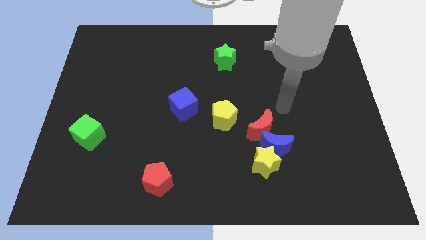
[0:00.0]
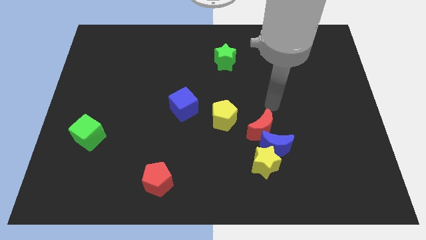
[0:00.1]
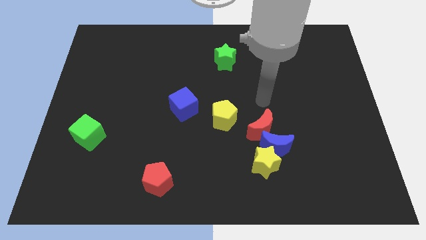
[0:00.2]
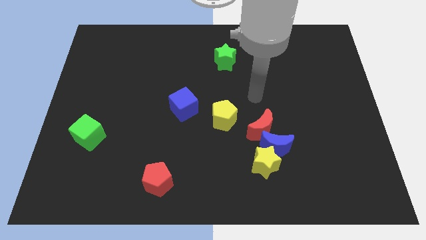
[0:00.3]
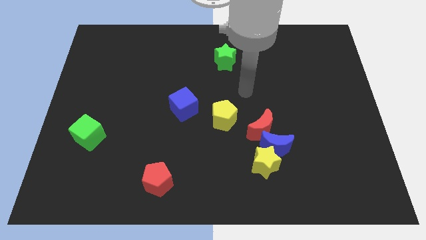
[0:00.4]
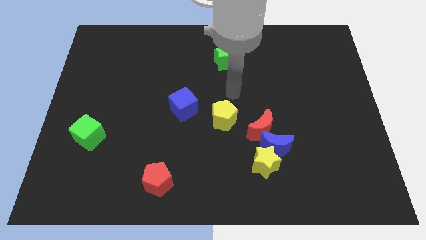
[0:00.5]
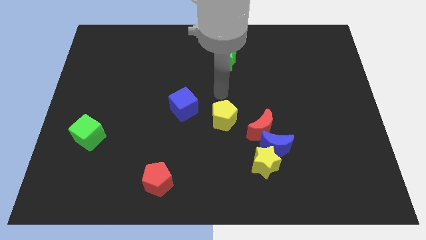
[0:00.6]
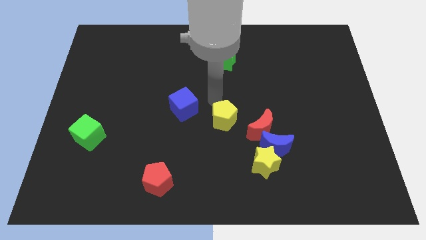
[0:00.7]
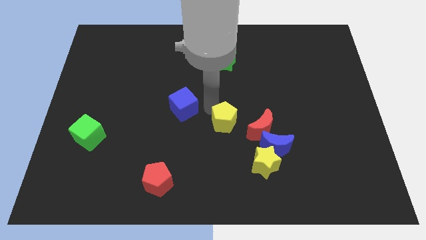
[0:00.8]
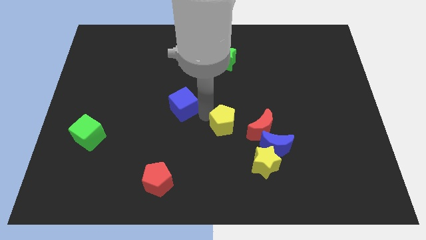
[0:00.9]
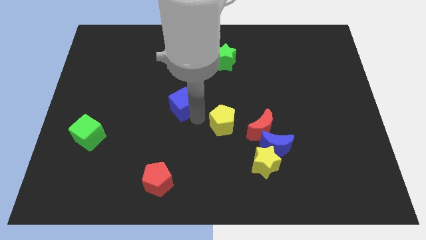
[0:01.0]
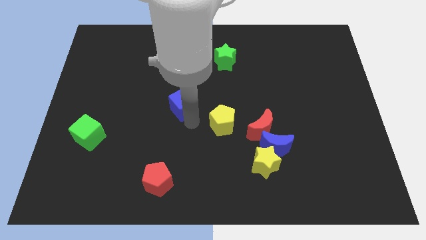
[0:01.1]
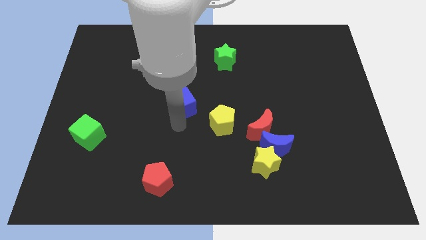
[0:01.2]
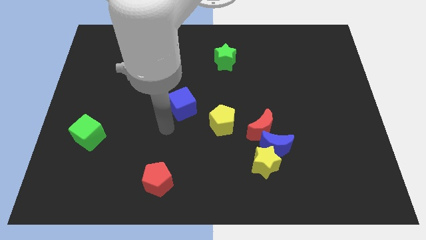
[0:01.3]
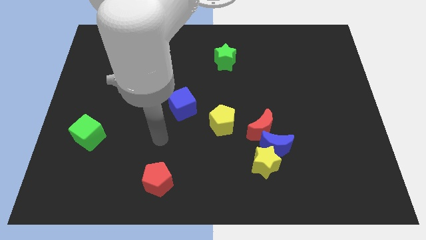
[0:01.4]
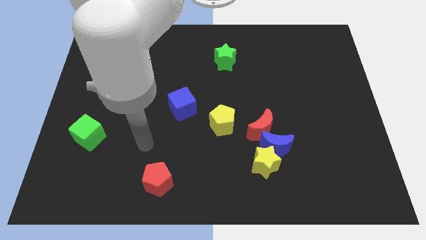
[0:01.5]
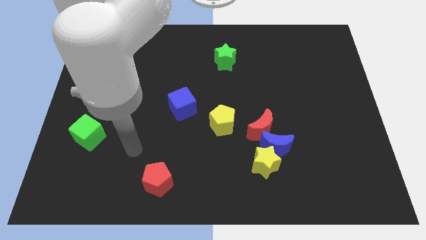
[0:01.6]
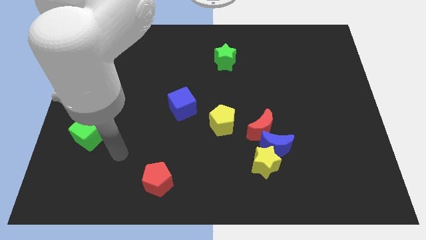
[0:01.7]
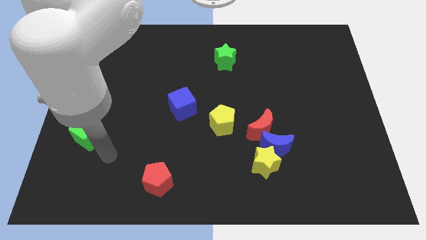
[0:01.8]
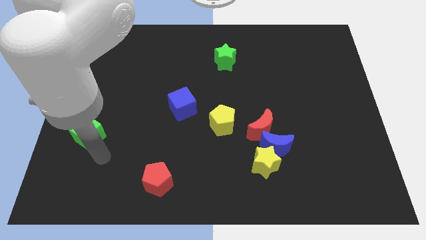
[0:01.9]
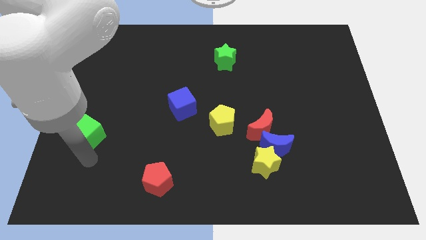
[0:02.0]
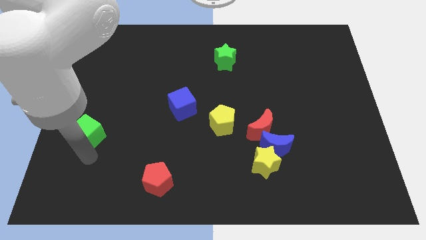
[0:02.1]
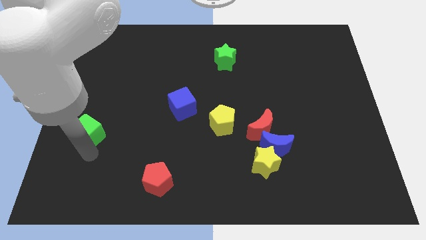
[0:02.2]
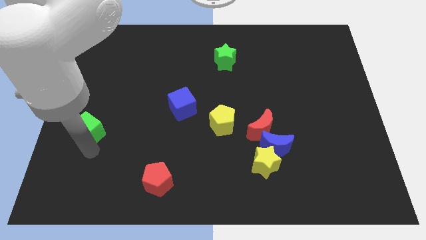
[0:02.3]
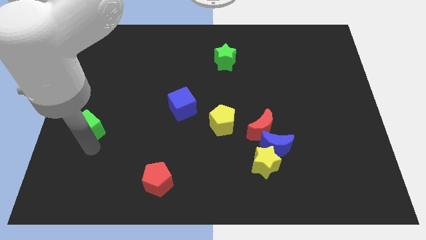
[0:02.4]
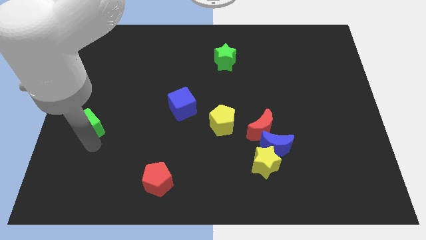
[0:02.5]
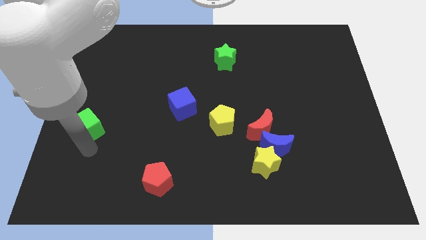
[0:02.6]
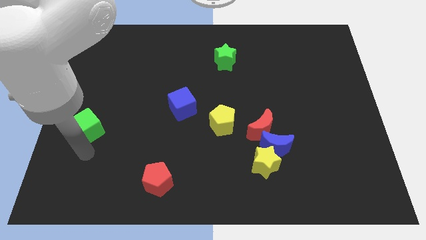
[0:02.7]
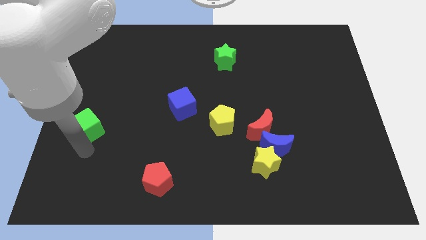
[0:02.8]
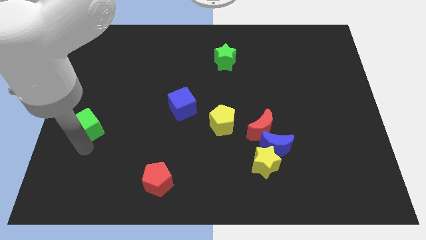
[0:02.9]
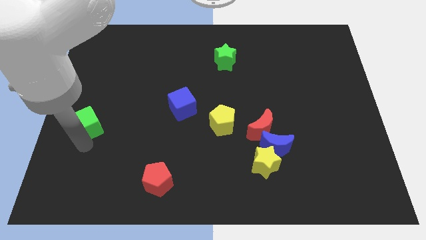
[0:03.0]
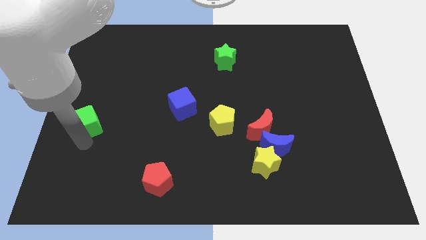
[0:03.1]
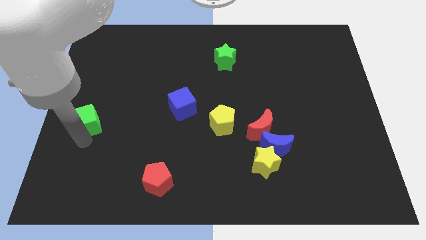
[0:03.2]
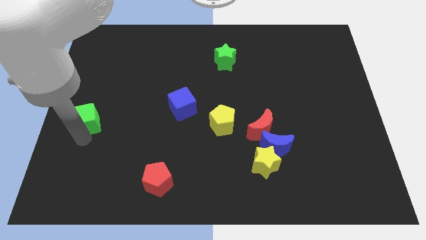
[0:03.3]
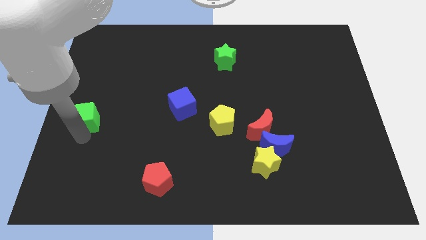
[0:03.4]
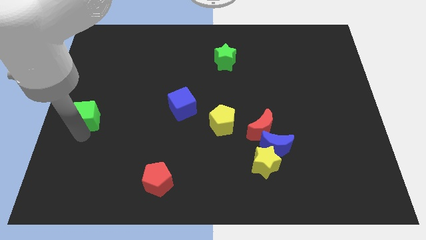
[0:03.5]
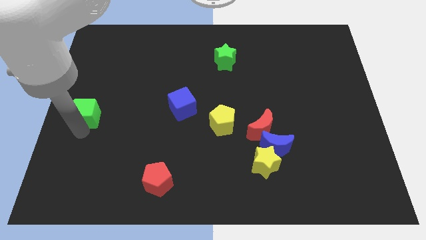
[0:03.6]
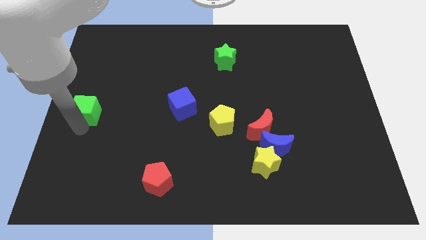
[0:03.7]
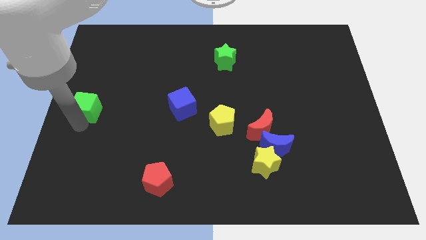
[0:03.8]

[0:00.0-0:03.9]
move the green cube a little upwards

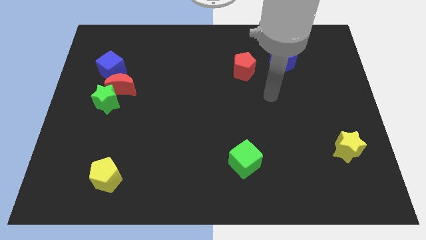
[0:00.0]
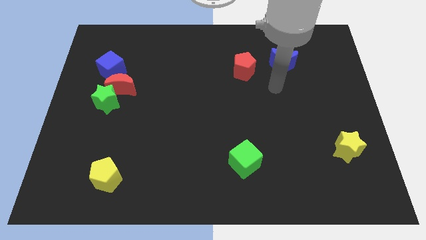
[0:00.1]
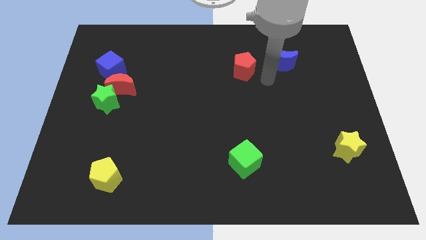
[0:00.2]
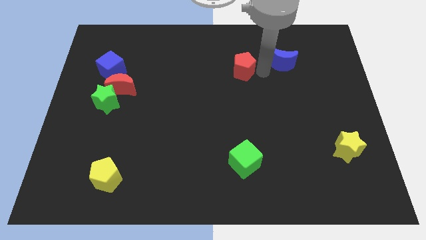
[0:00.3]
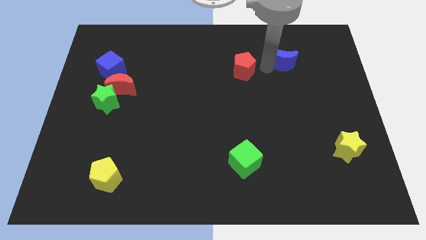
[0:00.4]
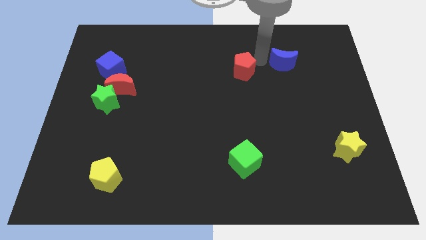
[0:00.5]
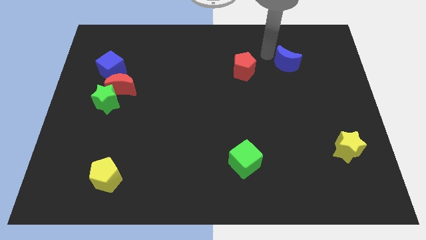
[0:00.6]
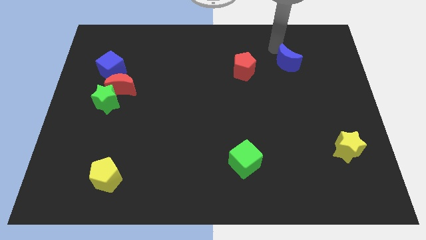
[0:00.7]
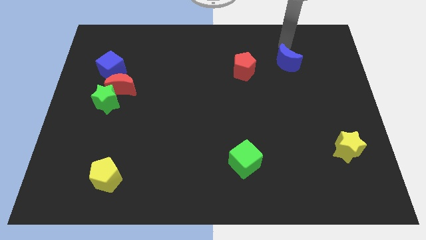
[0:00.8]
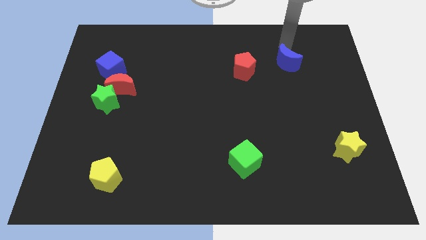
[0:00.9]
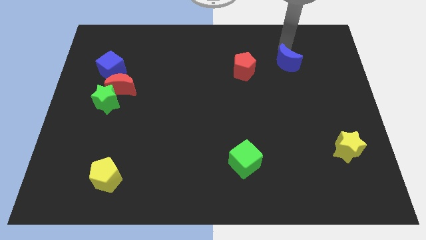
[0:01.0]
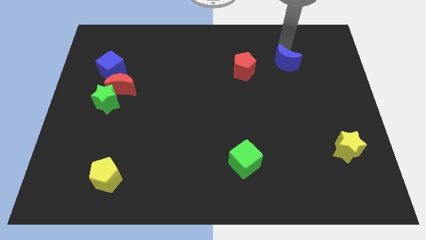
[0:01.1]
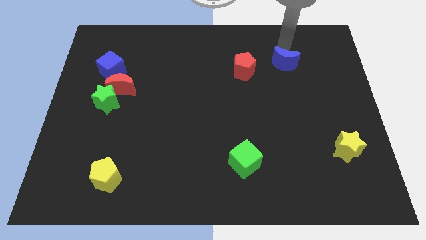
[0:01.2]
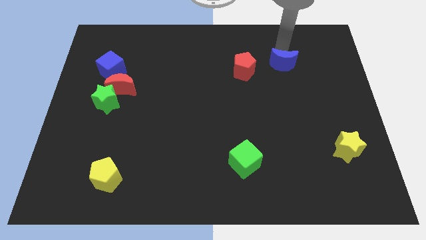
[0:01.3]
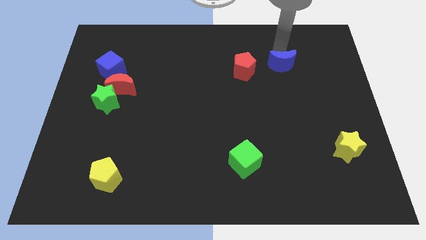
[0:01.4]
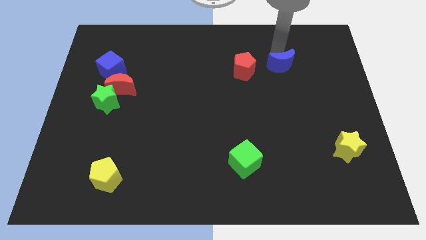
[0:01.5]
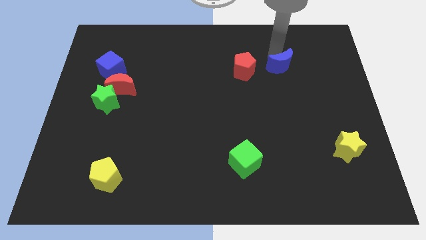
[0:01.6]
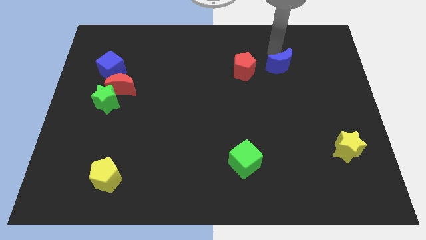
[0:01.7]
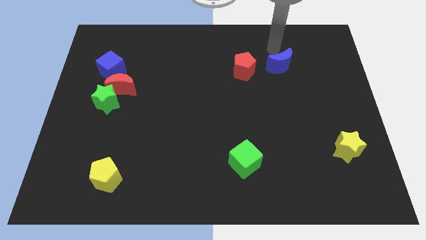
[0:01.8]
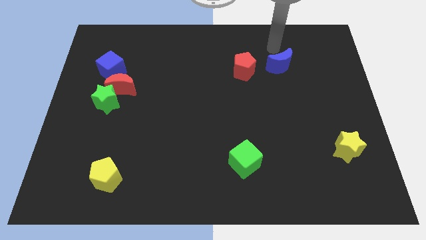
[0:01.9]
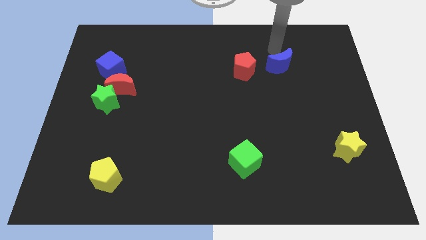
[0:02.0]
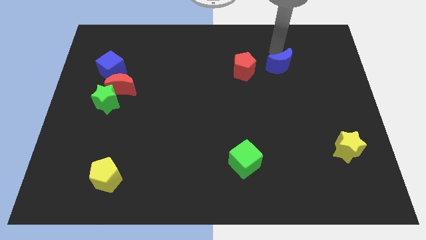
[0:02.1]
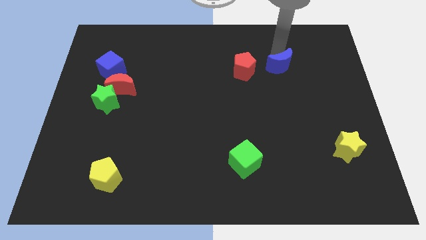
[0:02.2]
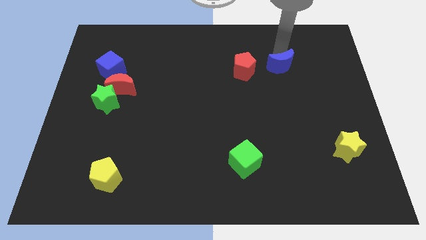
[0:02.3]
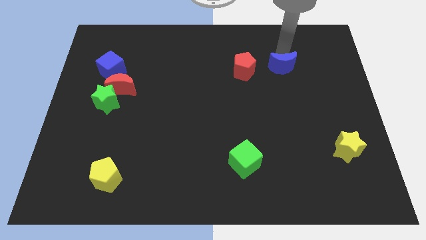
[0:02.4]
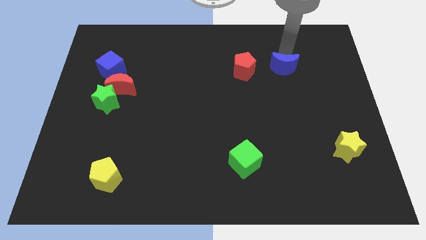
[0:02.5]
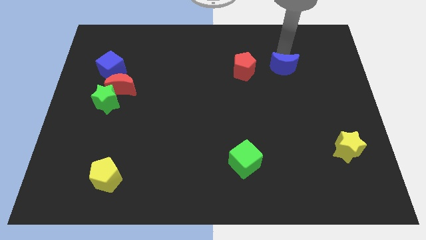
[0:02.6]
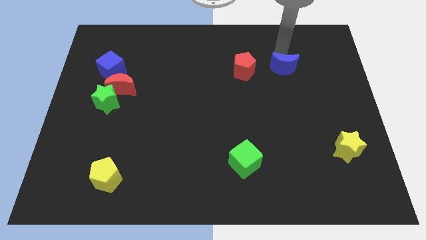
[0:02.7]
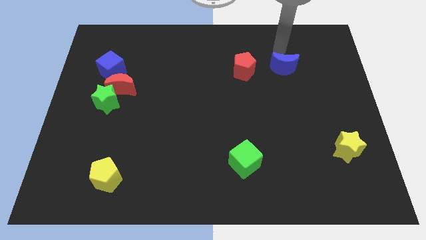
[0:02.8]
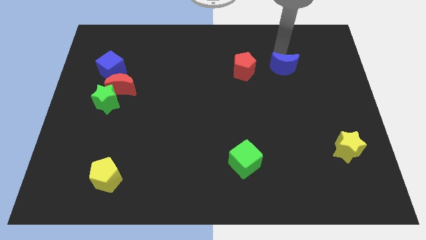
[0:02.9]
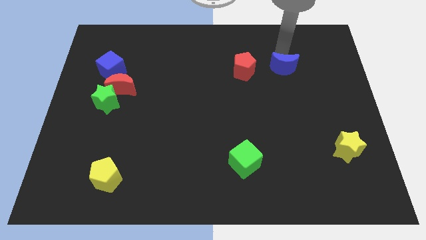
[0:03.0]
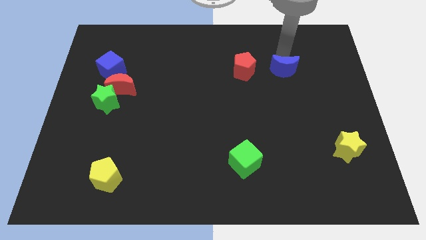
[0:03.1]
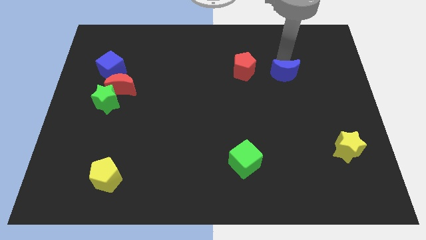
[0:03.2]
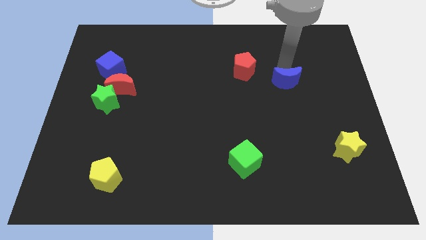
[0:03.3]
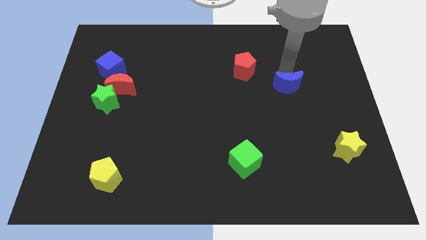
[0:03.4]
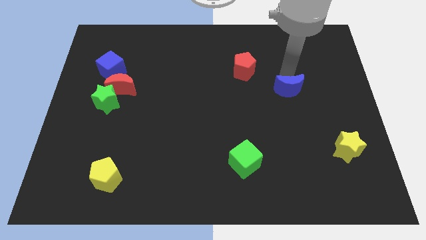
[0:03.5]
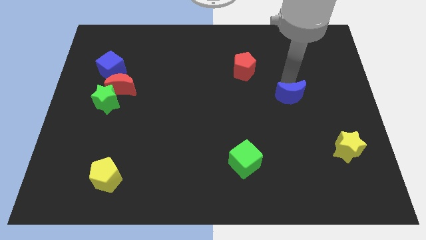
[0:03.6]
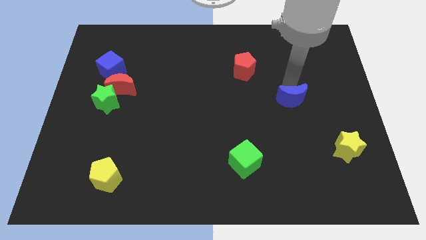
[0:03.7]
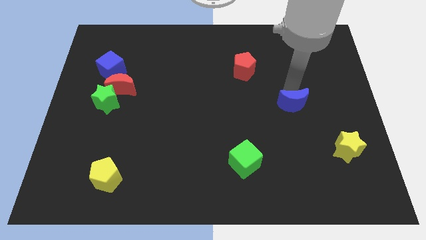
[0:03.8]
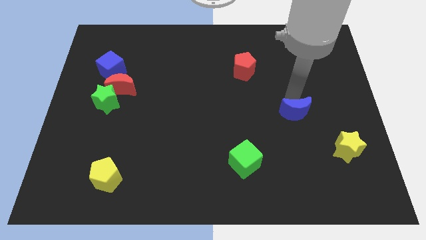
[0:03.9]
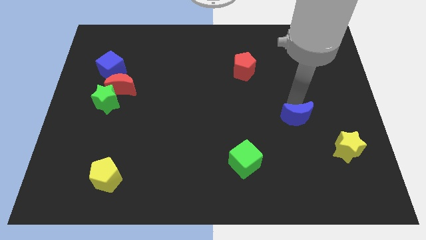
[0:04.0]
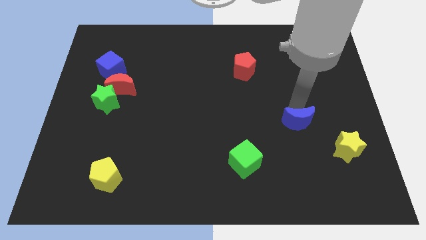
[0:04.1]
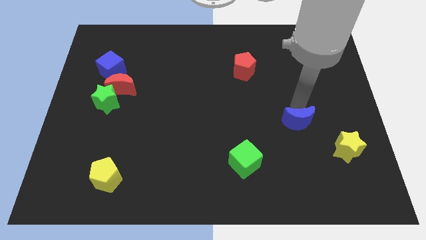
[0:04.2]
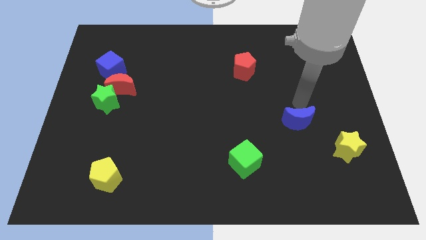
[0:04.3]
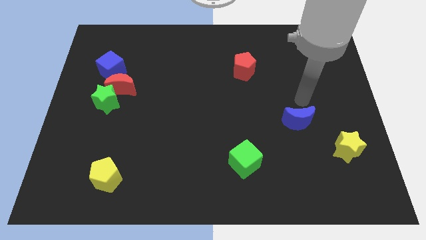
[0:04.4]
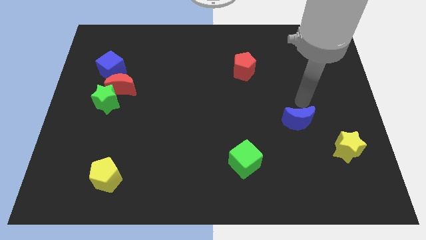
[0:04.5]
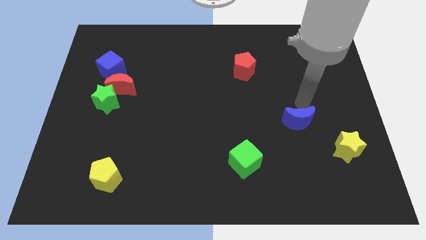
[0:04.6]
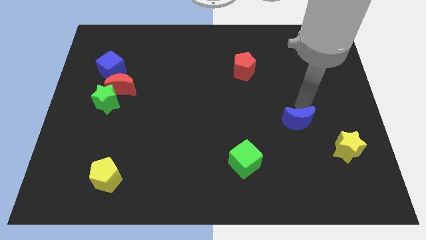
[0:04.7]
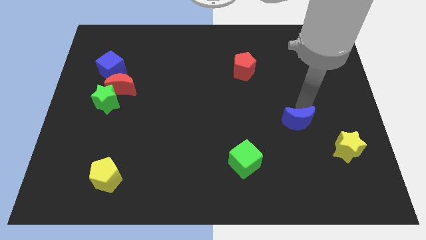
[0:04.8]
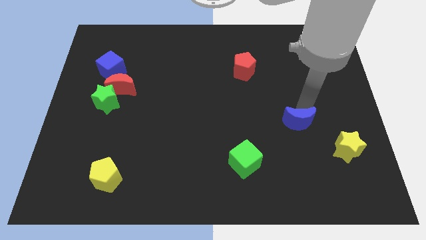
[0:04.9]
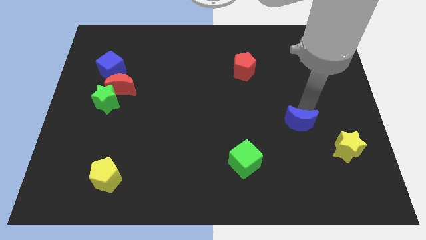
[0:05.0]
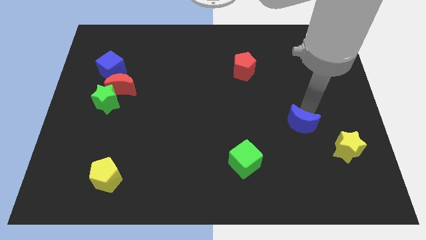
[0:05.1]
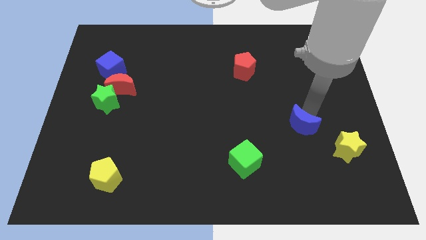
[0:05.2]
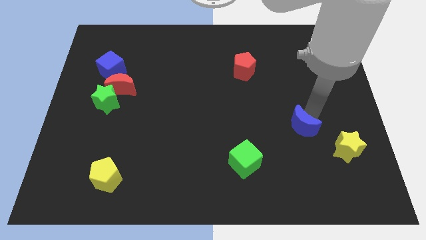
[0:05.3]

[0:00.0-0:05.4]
push the blue moon downwards
